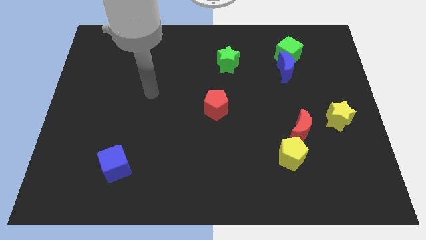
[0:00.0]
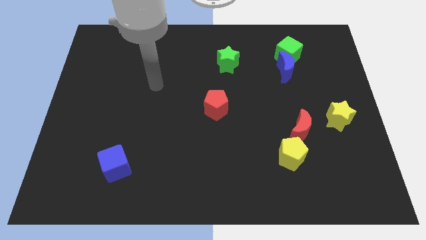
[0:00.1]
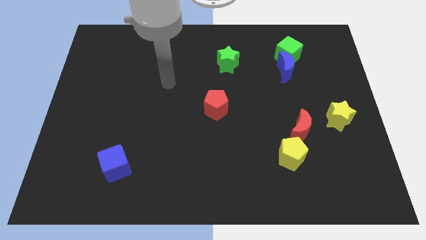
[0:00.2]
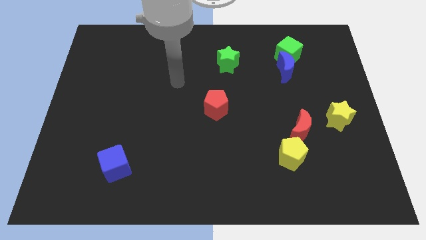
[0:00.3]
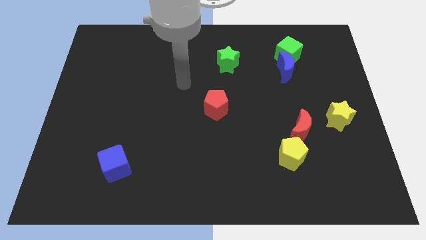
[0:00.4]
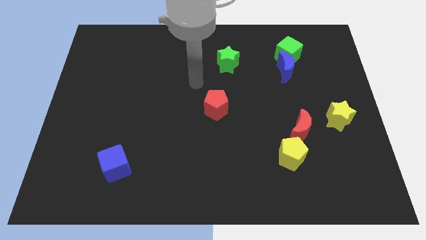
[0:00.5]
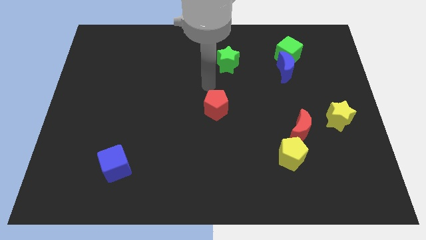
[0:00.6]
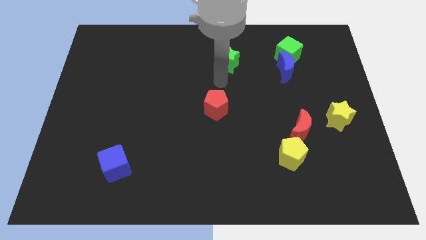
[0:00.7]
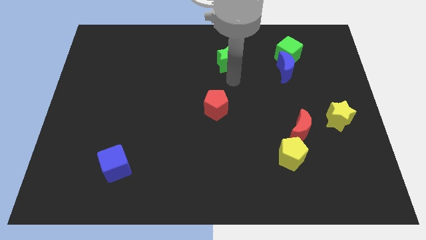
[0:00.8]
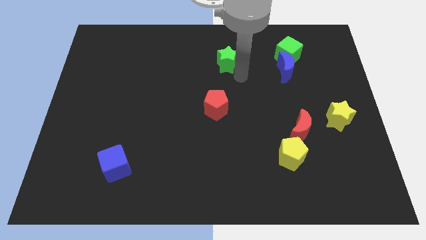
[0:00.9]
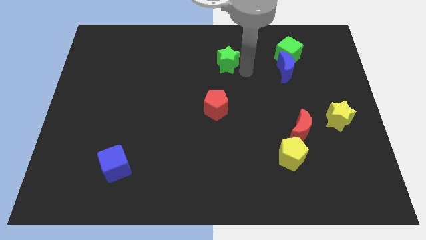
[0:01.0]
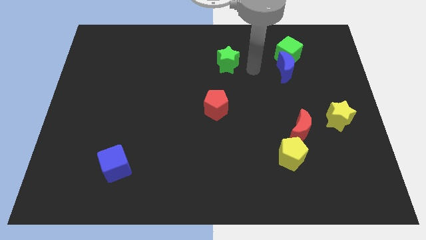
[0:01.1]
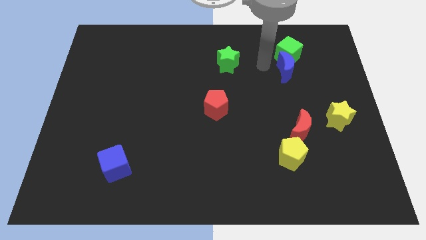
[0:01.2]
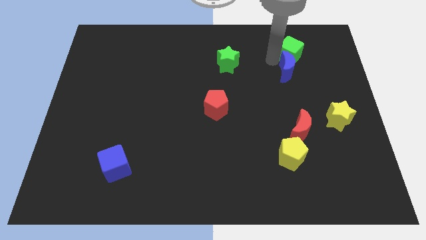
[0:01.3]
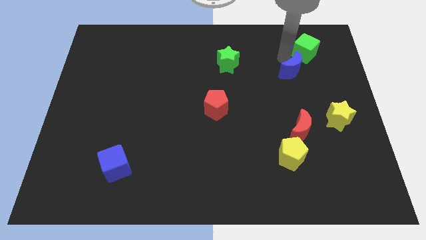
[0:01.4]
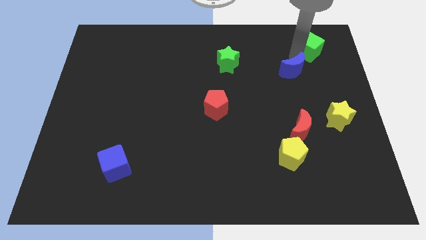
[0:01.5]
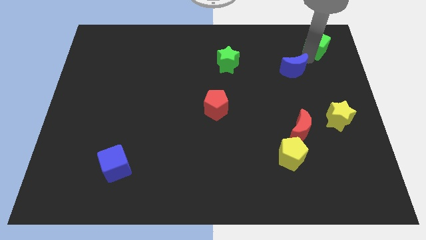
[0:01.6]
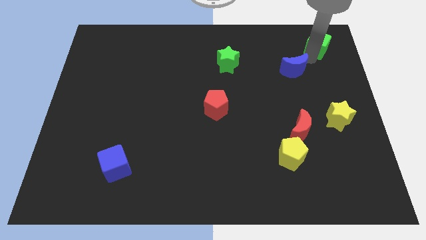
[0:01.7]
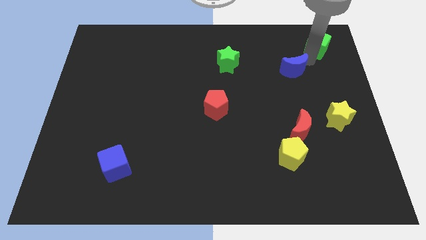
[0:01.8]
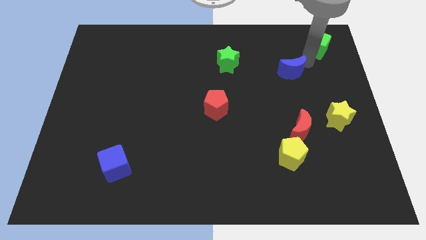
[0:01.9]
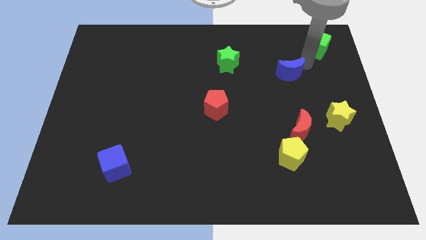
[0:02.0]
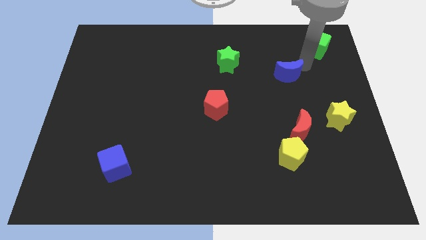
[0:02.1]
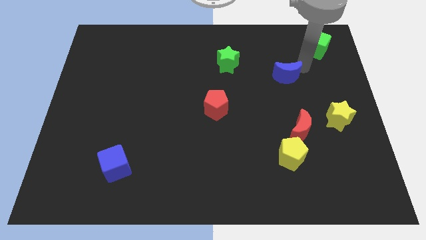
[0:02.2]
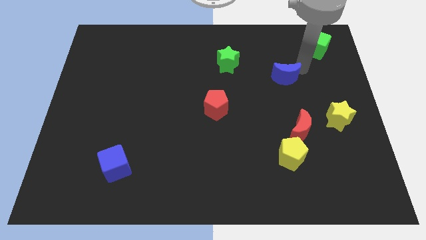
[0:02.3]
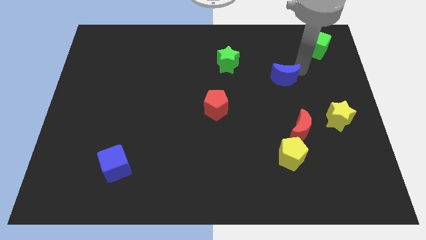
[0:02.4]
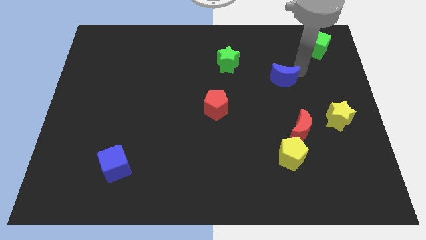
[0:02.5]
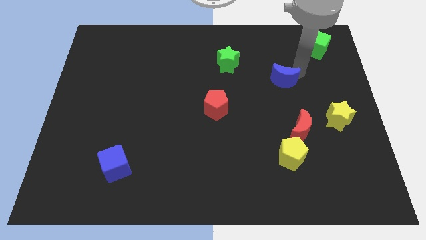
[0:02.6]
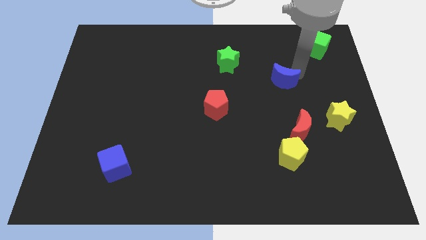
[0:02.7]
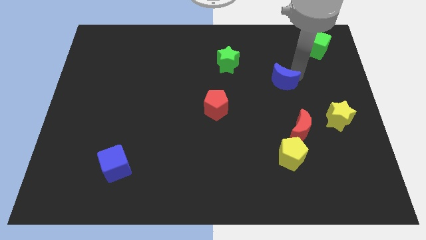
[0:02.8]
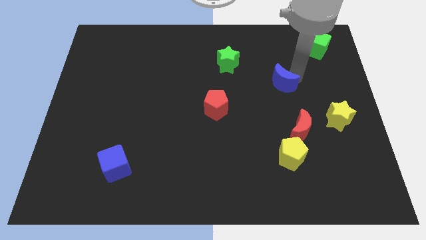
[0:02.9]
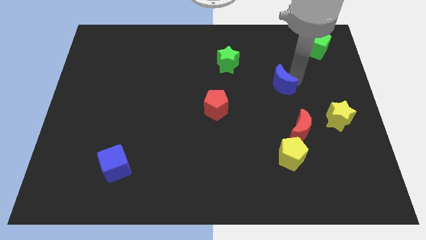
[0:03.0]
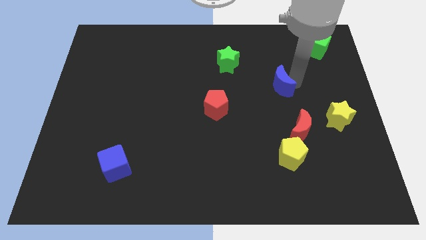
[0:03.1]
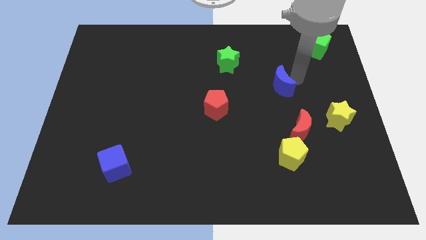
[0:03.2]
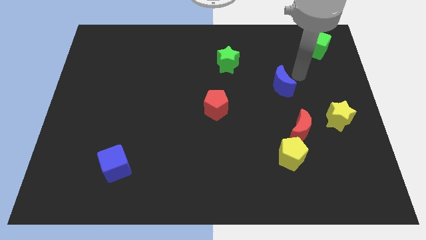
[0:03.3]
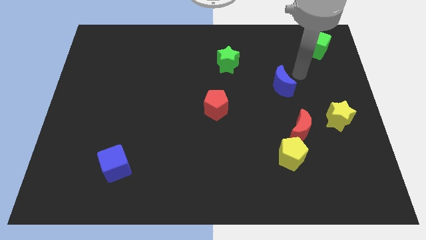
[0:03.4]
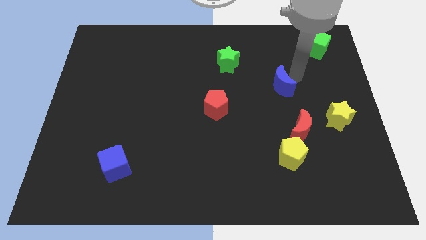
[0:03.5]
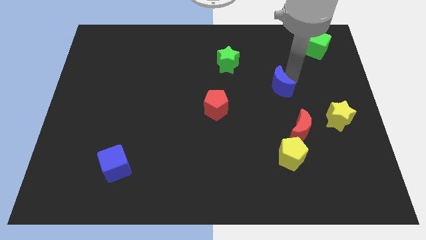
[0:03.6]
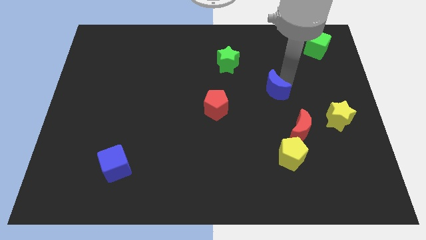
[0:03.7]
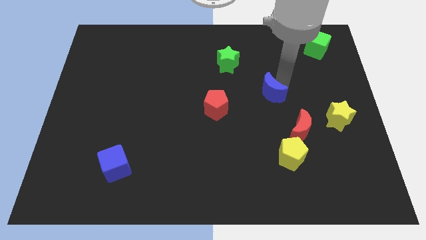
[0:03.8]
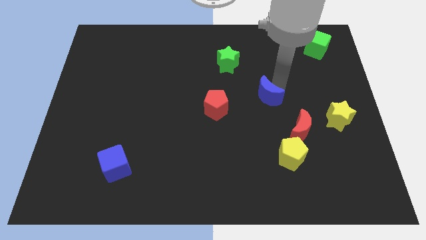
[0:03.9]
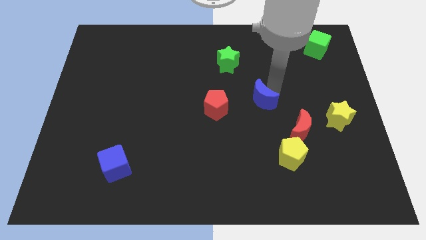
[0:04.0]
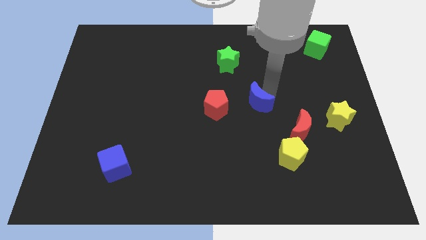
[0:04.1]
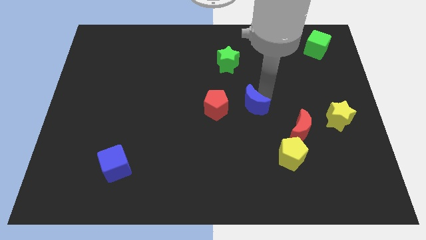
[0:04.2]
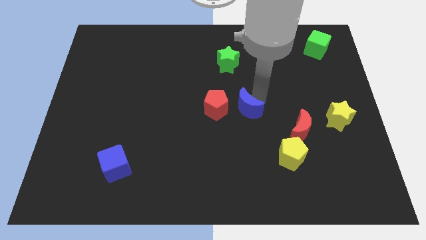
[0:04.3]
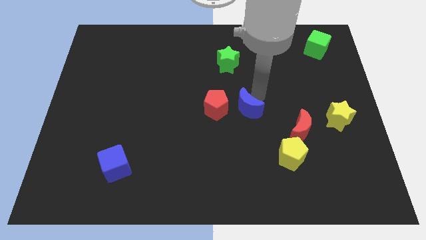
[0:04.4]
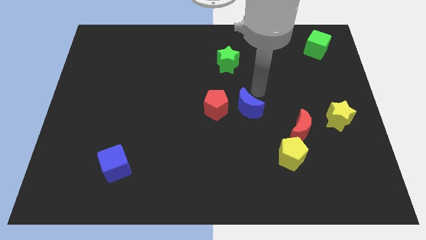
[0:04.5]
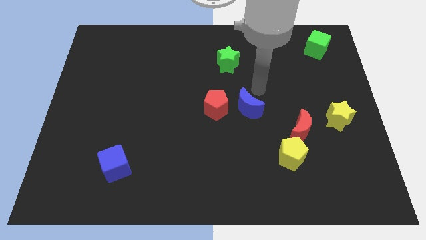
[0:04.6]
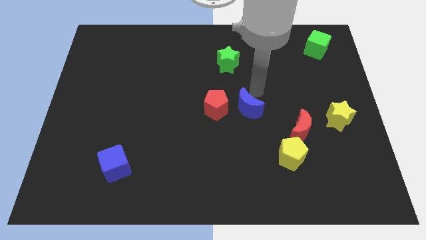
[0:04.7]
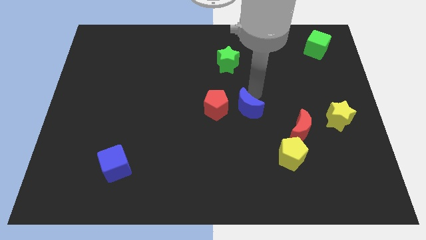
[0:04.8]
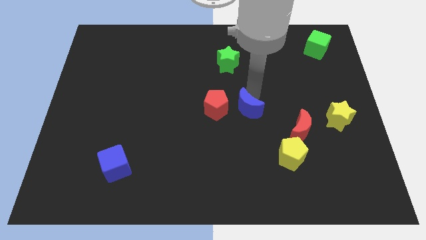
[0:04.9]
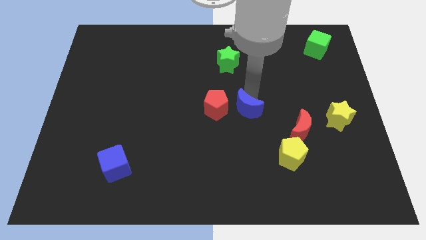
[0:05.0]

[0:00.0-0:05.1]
put the blue moon diagonally down and to the right of the red pentagon

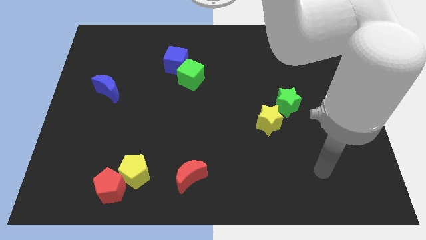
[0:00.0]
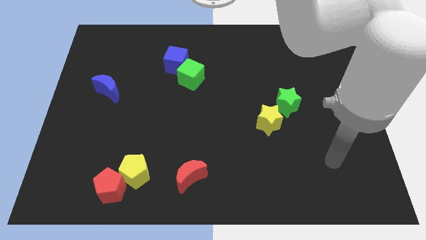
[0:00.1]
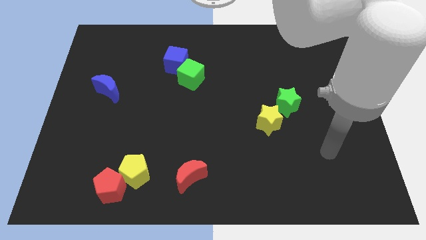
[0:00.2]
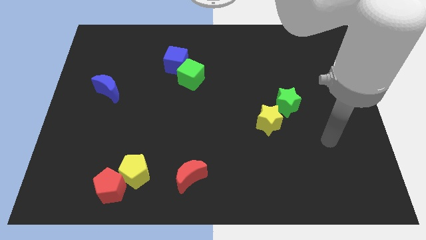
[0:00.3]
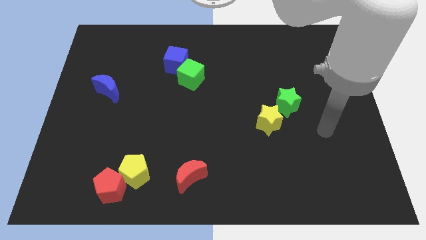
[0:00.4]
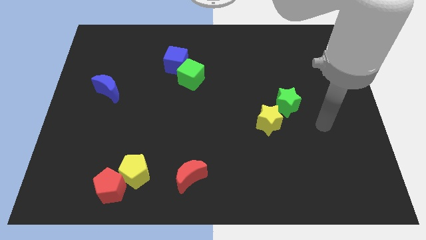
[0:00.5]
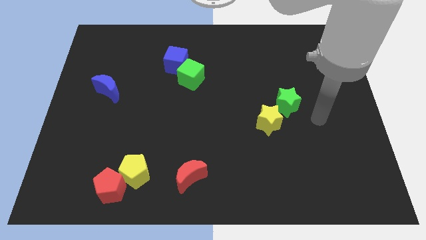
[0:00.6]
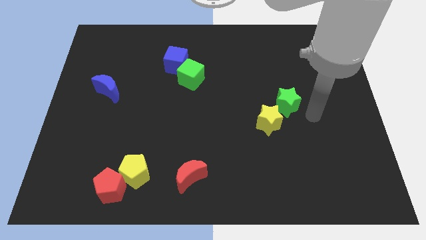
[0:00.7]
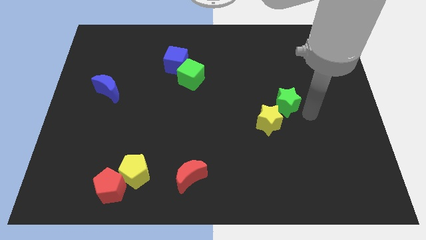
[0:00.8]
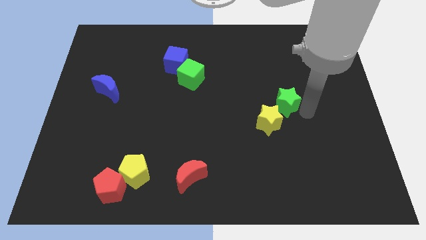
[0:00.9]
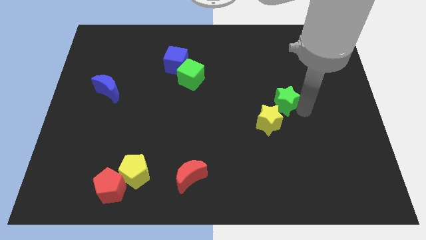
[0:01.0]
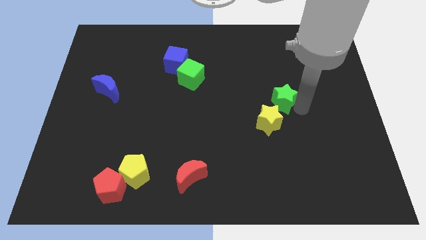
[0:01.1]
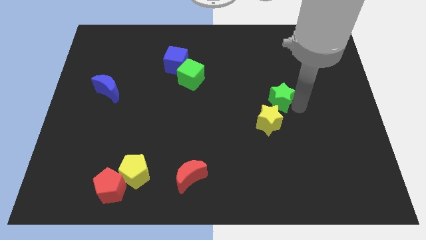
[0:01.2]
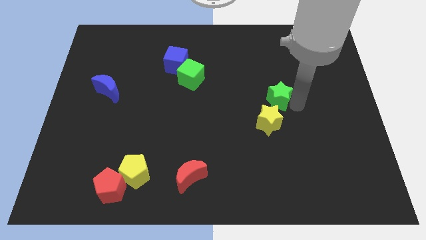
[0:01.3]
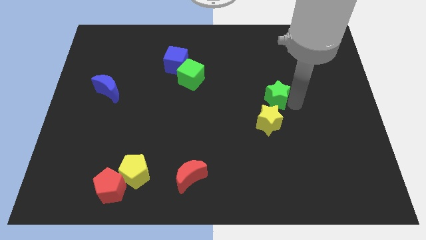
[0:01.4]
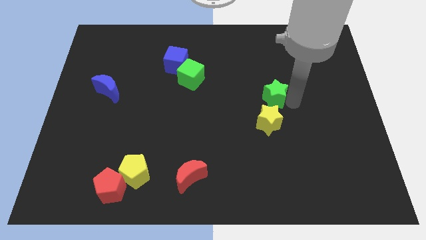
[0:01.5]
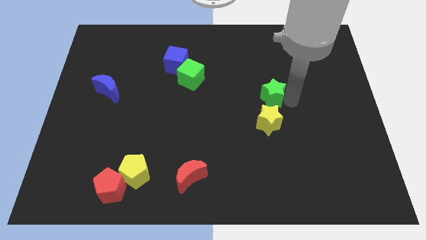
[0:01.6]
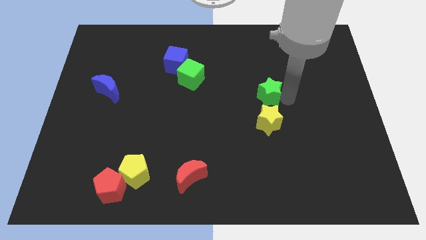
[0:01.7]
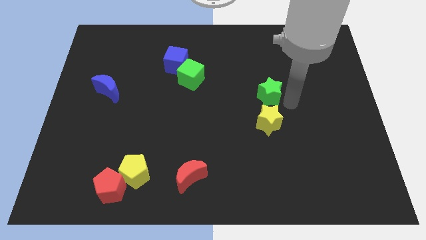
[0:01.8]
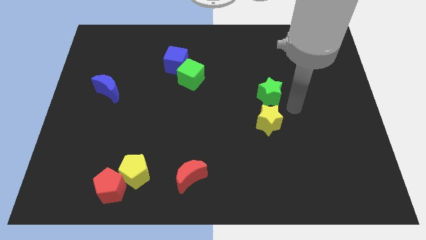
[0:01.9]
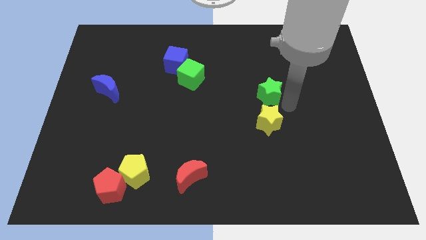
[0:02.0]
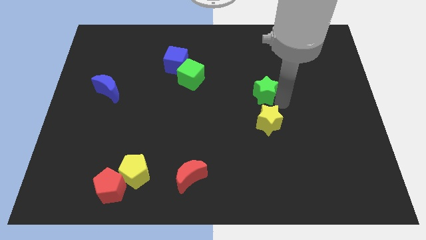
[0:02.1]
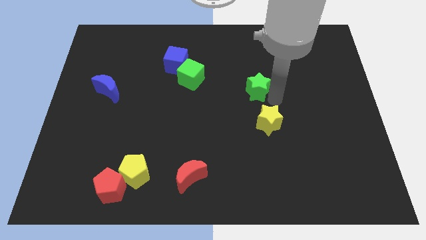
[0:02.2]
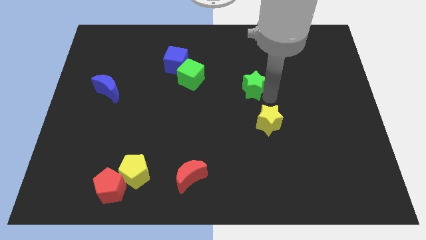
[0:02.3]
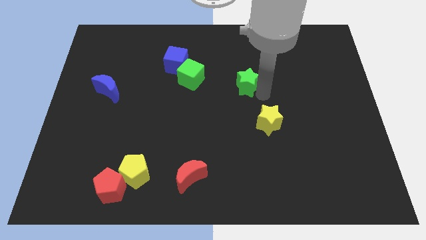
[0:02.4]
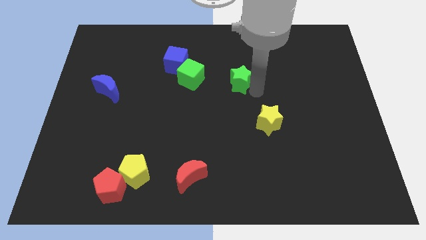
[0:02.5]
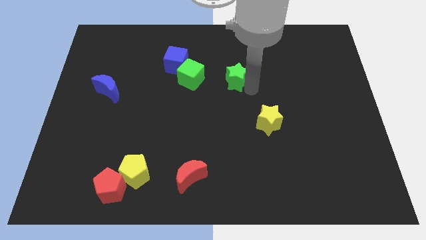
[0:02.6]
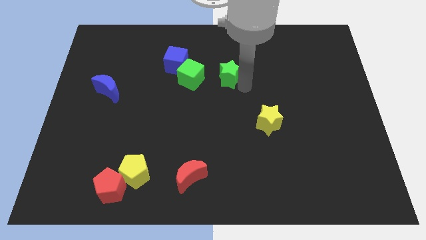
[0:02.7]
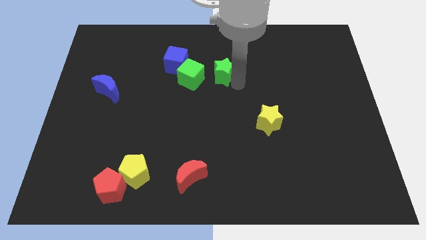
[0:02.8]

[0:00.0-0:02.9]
slide the green star just right of the blue cube
